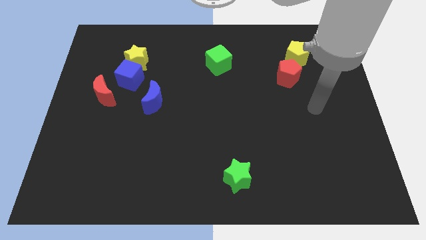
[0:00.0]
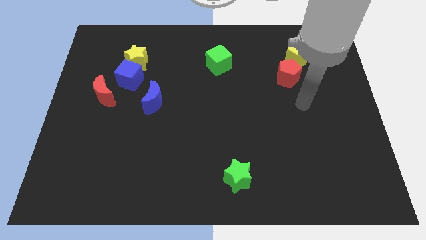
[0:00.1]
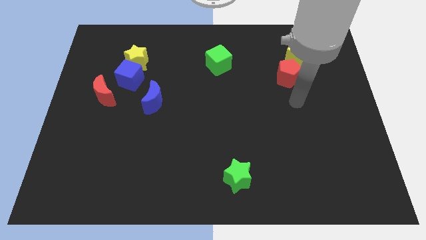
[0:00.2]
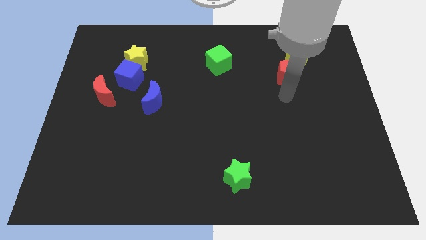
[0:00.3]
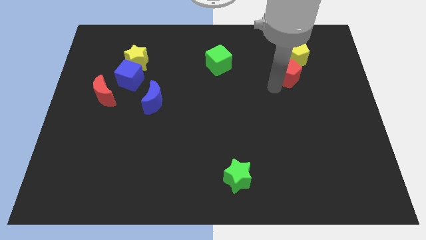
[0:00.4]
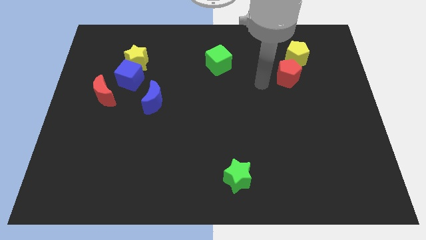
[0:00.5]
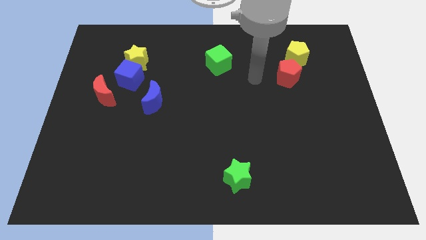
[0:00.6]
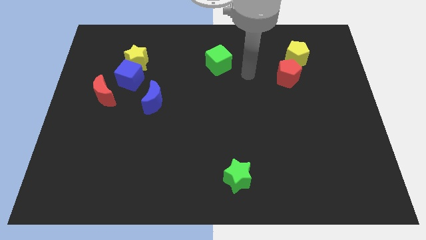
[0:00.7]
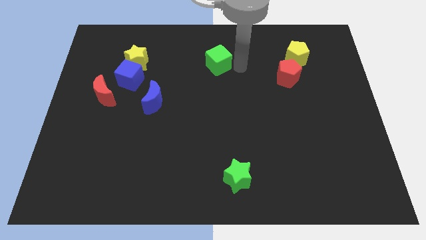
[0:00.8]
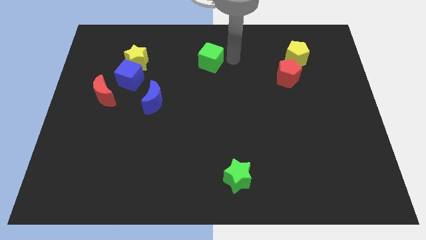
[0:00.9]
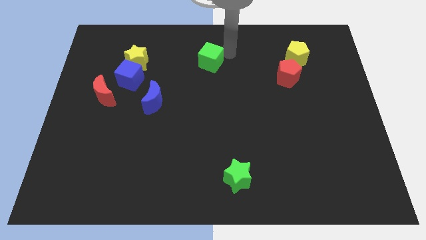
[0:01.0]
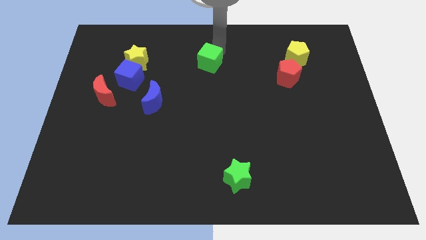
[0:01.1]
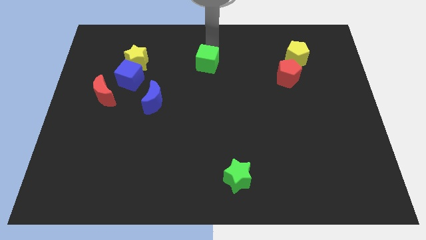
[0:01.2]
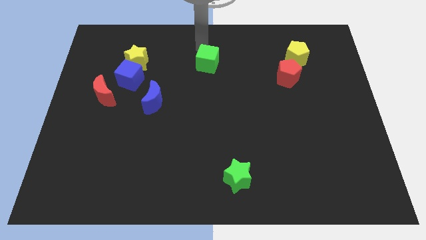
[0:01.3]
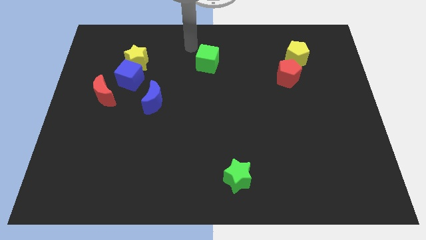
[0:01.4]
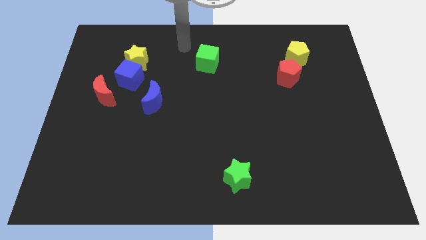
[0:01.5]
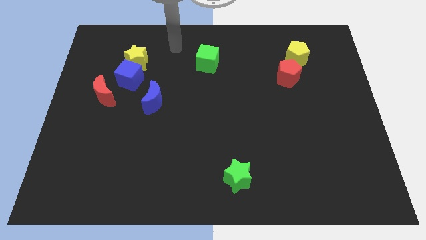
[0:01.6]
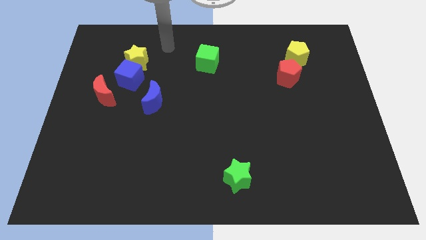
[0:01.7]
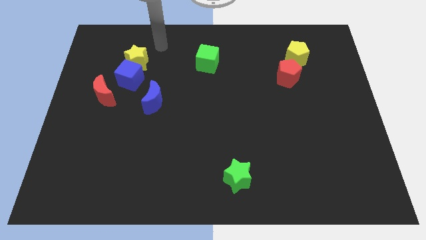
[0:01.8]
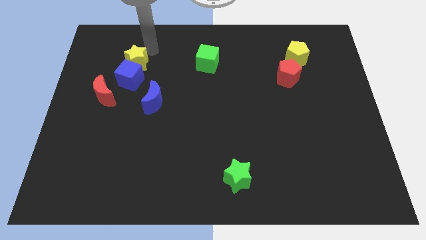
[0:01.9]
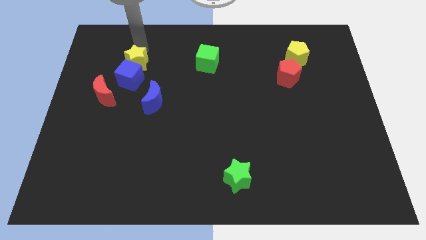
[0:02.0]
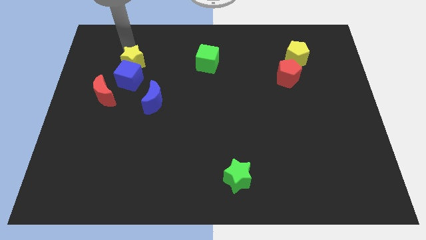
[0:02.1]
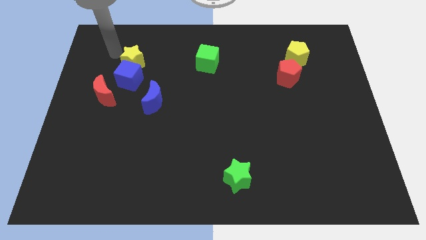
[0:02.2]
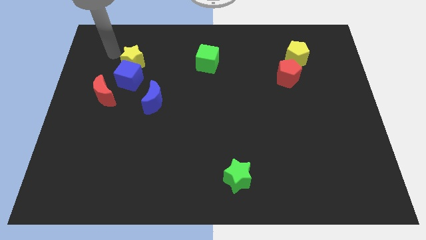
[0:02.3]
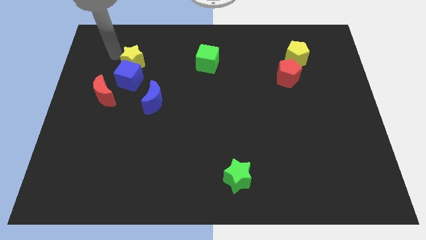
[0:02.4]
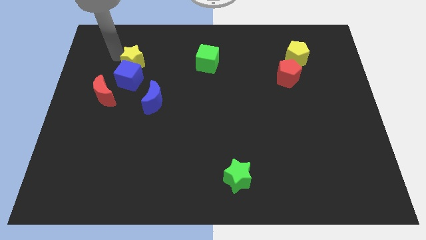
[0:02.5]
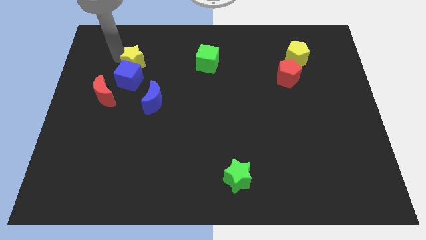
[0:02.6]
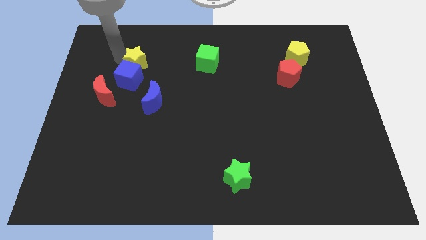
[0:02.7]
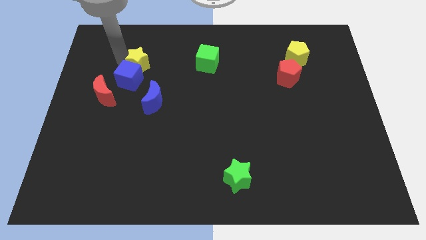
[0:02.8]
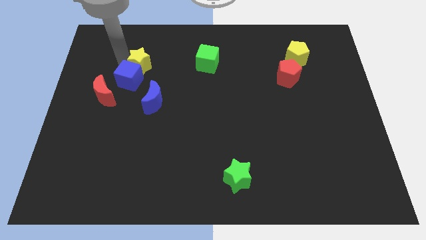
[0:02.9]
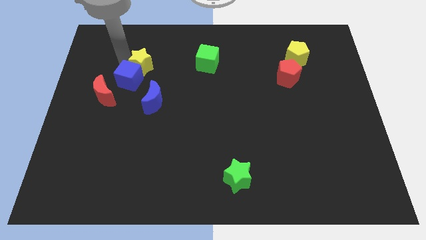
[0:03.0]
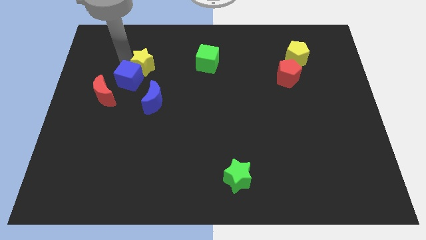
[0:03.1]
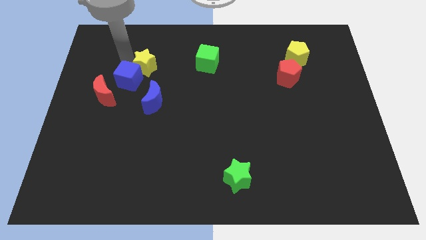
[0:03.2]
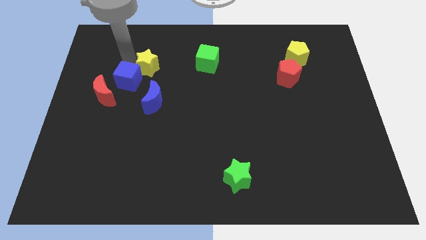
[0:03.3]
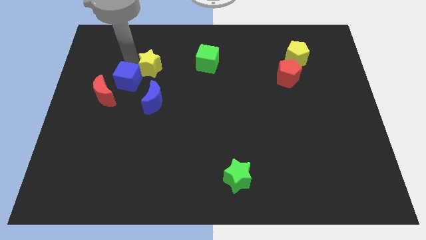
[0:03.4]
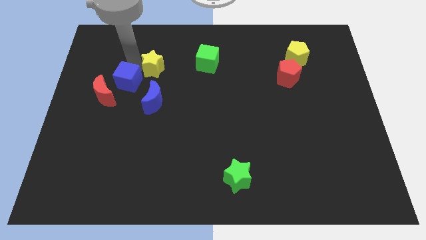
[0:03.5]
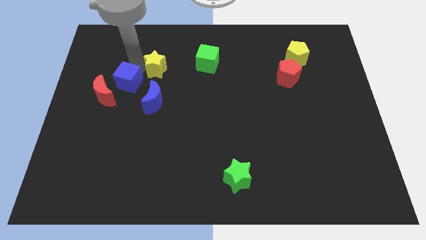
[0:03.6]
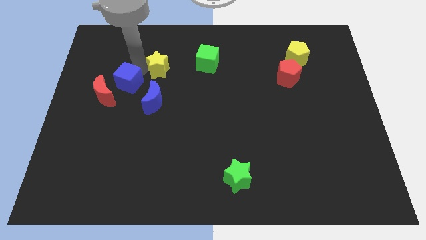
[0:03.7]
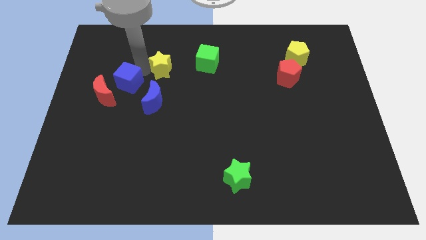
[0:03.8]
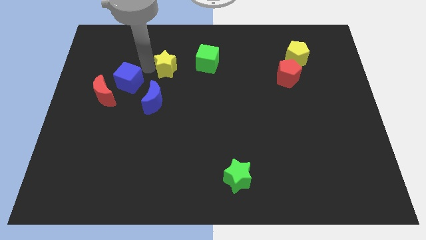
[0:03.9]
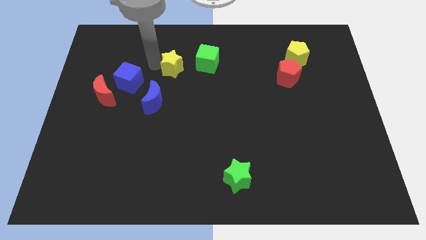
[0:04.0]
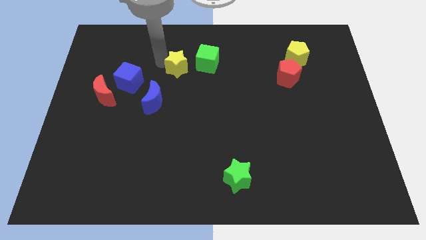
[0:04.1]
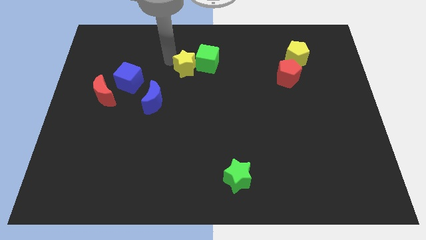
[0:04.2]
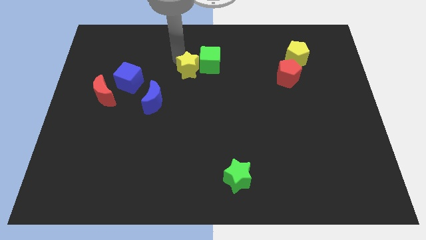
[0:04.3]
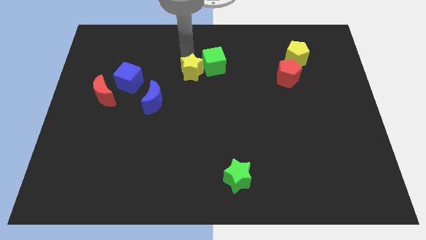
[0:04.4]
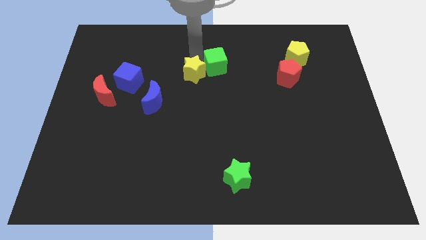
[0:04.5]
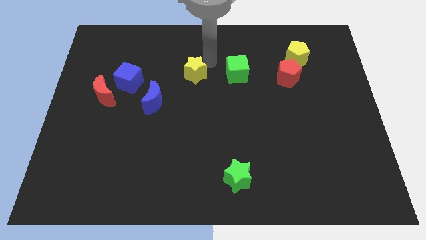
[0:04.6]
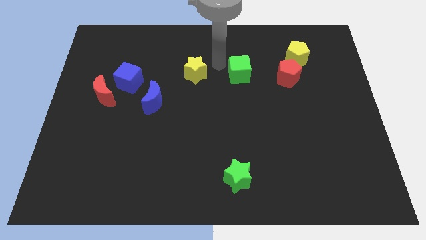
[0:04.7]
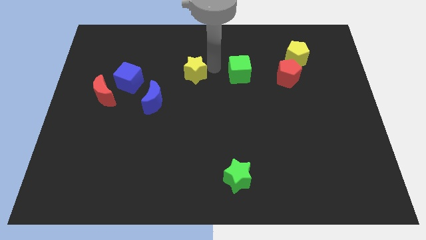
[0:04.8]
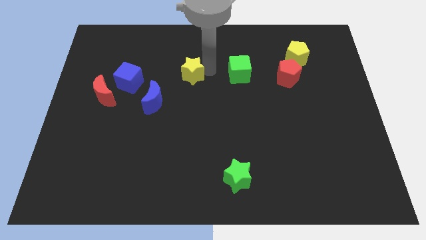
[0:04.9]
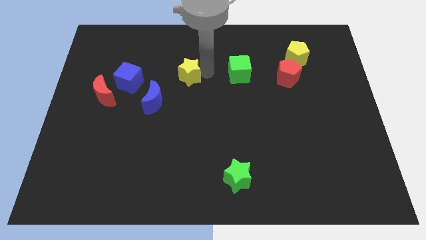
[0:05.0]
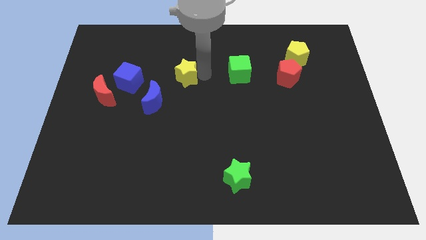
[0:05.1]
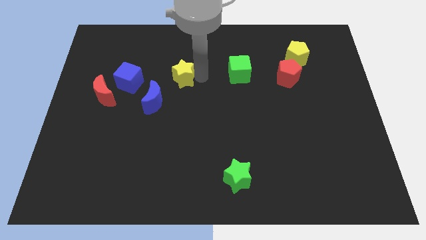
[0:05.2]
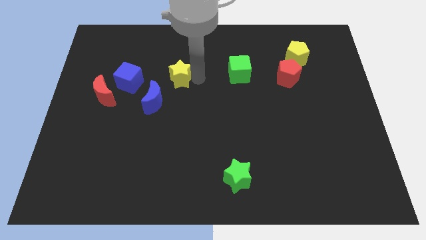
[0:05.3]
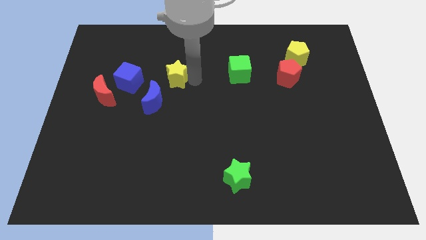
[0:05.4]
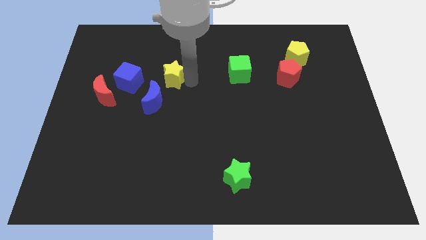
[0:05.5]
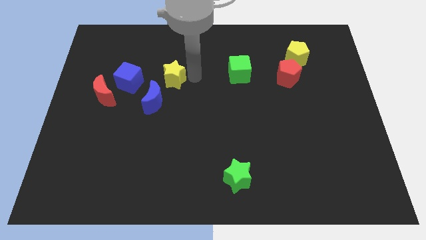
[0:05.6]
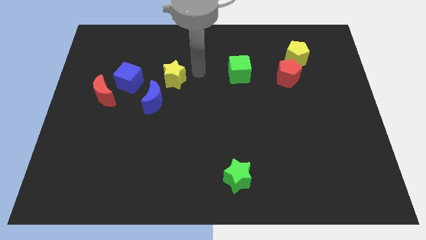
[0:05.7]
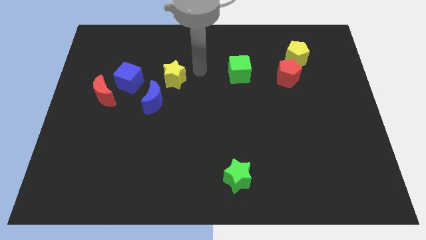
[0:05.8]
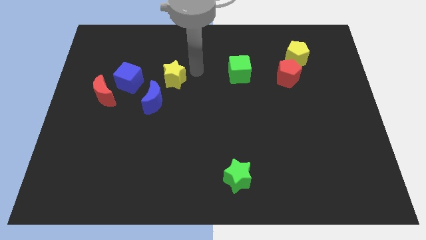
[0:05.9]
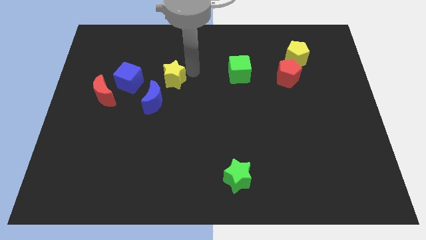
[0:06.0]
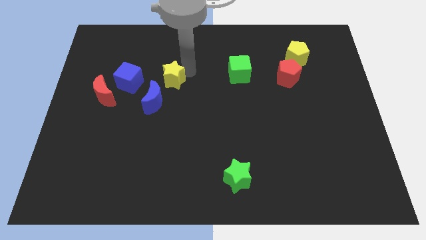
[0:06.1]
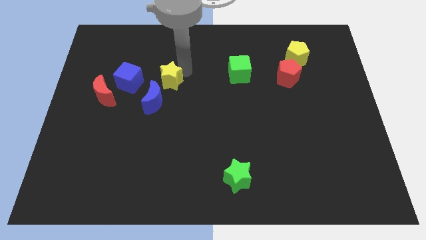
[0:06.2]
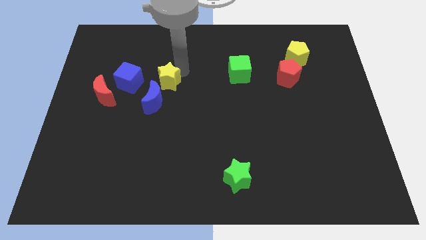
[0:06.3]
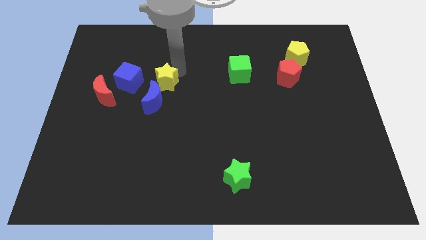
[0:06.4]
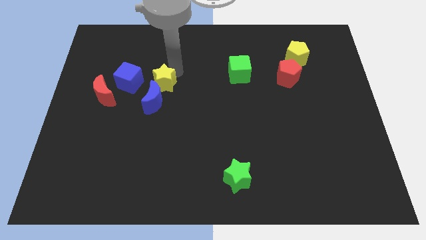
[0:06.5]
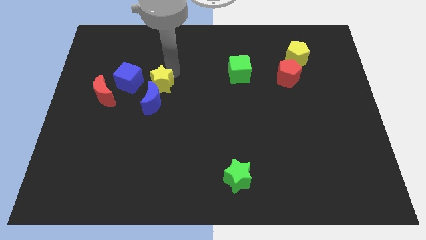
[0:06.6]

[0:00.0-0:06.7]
move the yellow star to the blue moon
